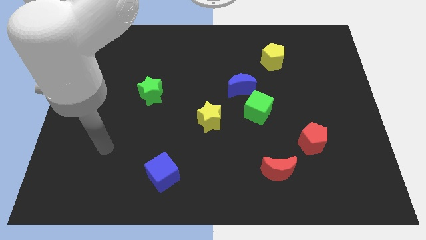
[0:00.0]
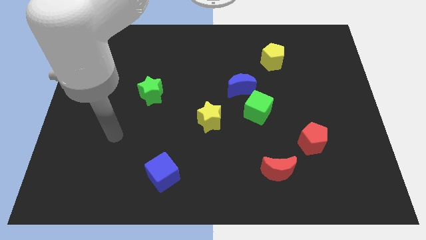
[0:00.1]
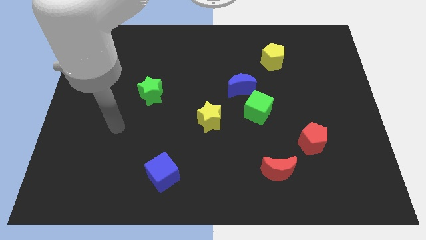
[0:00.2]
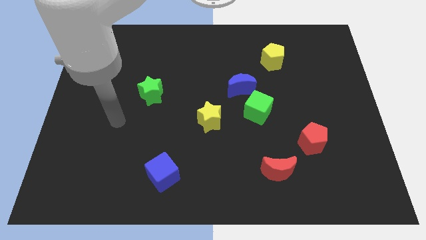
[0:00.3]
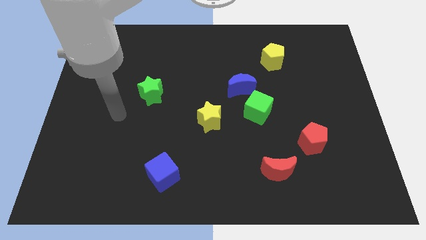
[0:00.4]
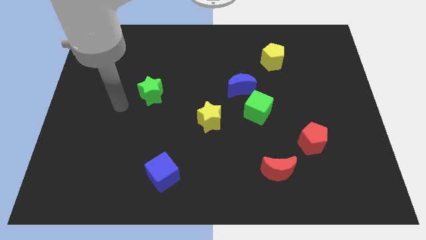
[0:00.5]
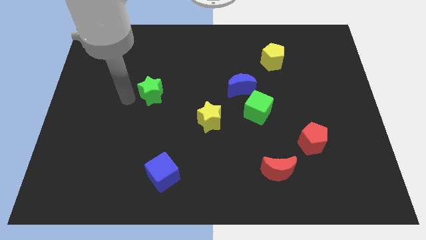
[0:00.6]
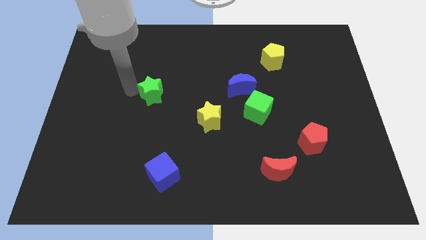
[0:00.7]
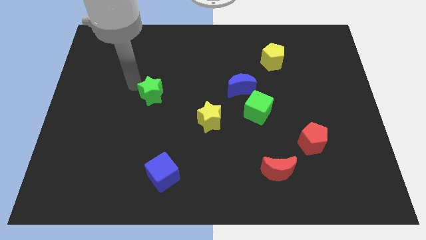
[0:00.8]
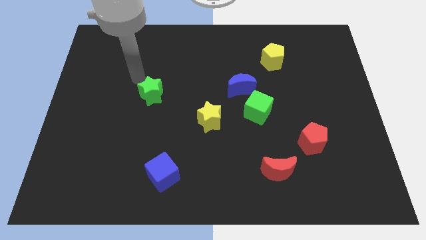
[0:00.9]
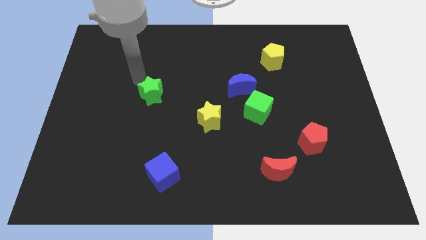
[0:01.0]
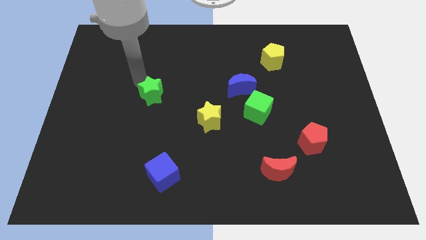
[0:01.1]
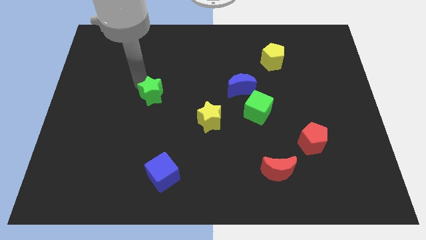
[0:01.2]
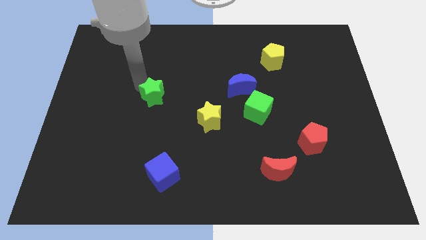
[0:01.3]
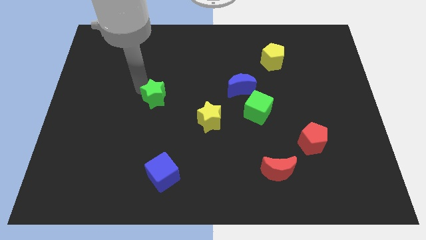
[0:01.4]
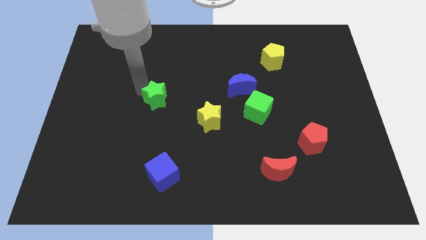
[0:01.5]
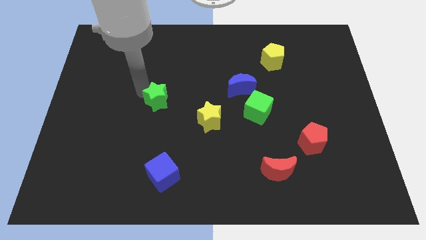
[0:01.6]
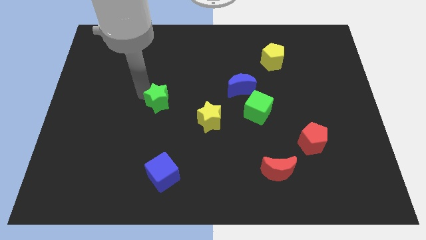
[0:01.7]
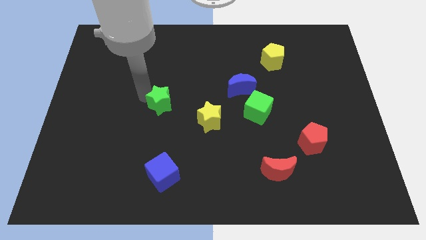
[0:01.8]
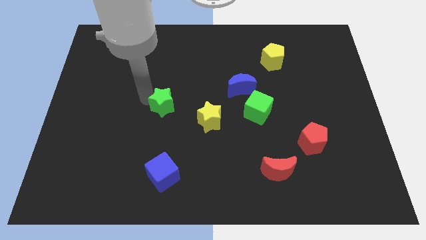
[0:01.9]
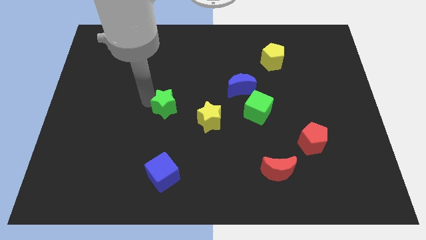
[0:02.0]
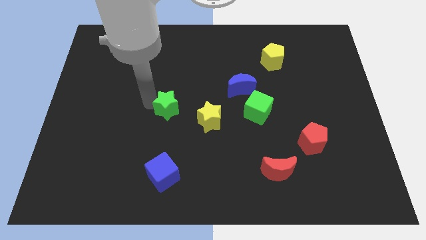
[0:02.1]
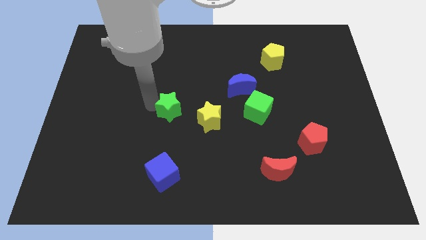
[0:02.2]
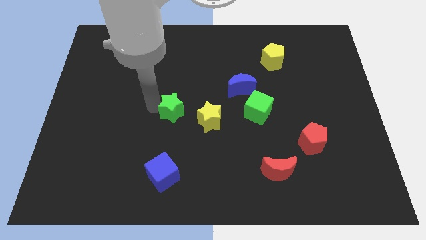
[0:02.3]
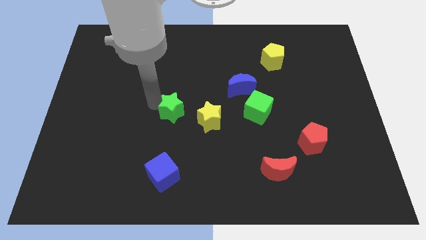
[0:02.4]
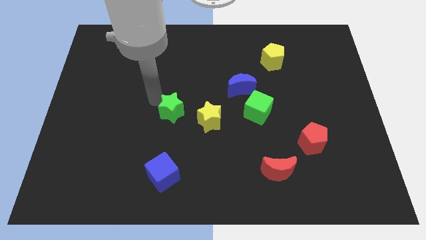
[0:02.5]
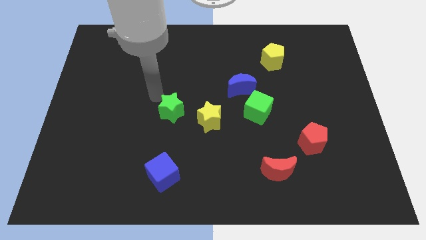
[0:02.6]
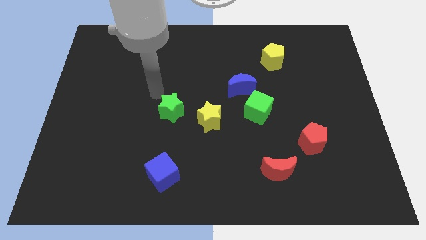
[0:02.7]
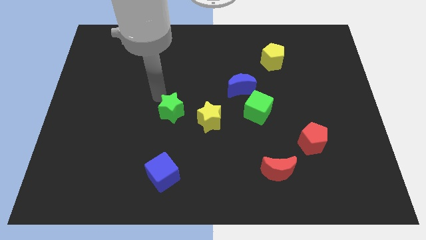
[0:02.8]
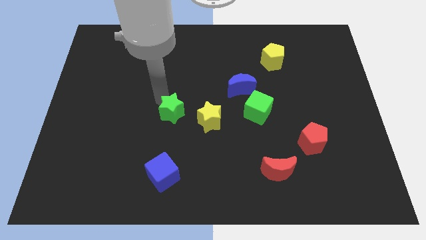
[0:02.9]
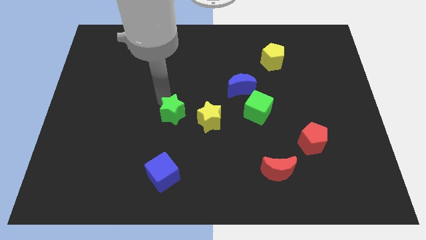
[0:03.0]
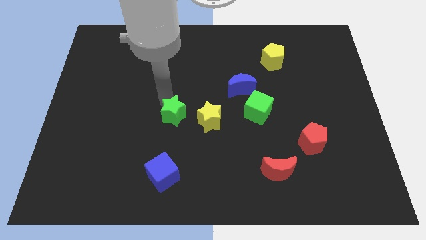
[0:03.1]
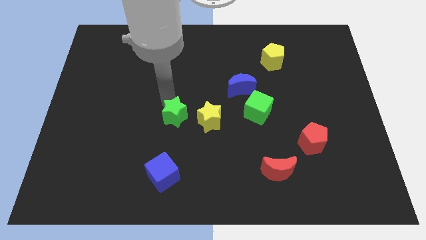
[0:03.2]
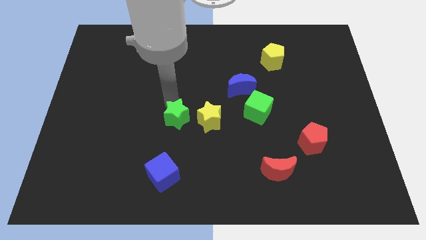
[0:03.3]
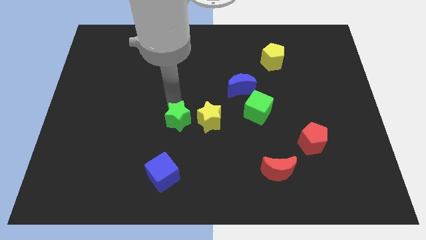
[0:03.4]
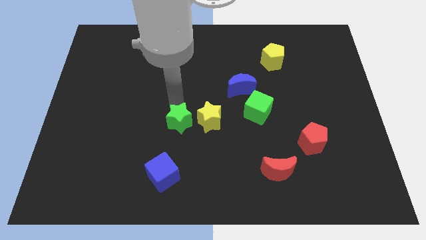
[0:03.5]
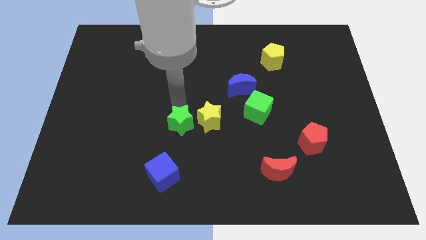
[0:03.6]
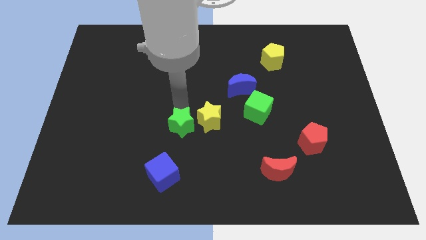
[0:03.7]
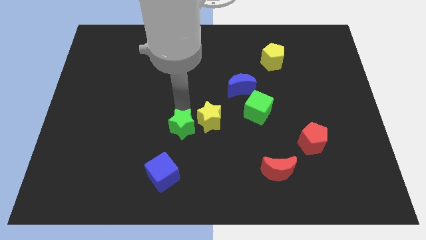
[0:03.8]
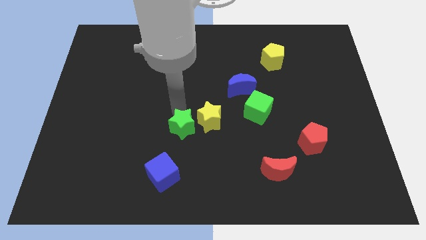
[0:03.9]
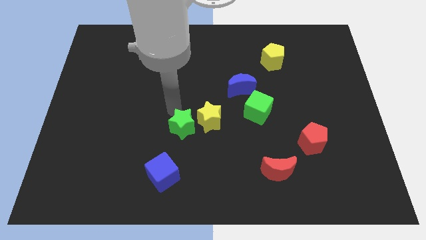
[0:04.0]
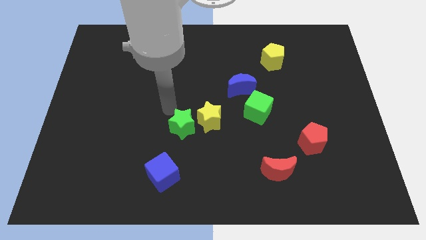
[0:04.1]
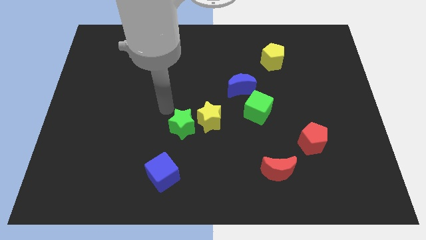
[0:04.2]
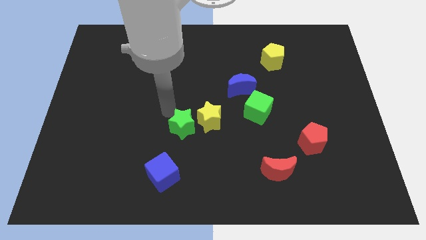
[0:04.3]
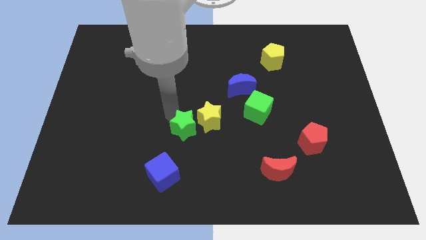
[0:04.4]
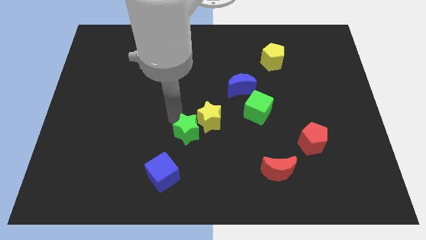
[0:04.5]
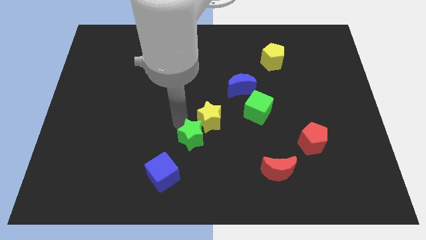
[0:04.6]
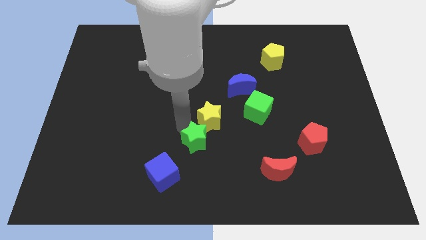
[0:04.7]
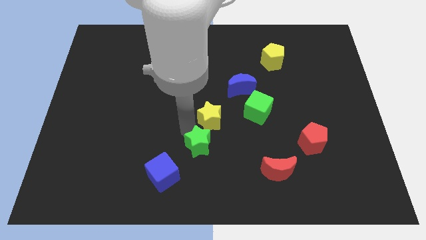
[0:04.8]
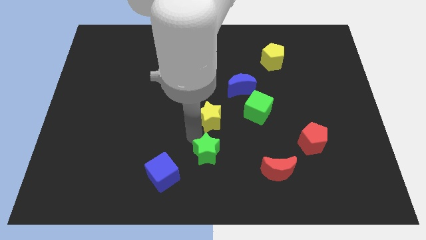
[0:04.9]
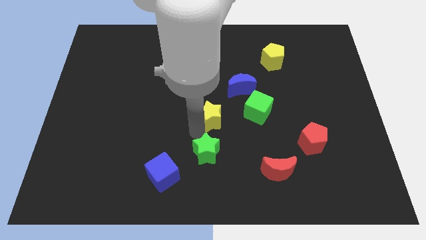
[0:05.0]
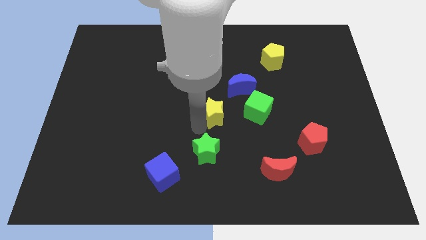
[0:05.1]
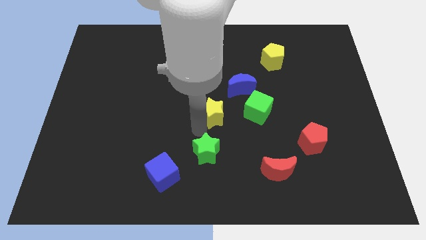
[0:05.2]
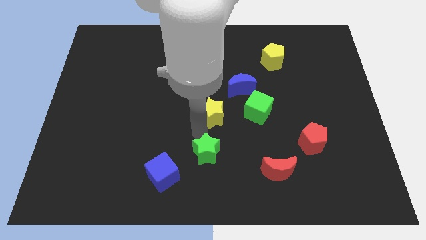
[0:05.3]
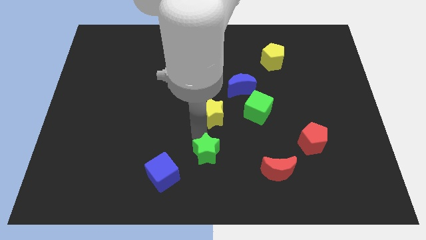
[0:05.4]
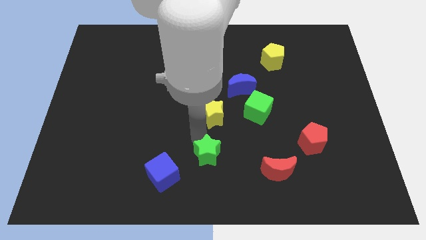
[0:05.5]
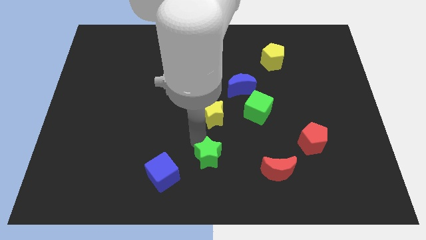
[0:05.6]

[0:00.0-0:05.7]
push the green star just right of the blue cube
